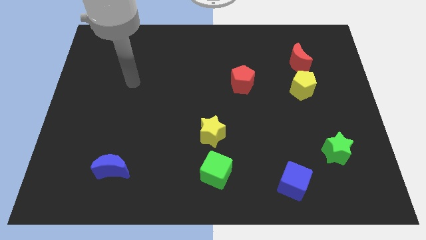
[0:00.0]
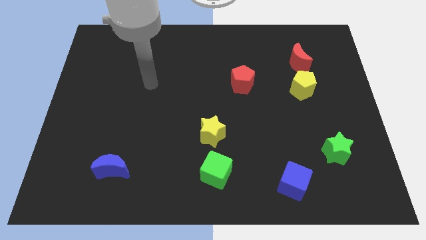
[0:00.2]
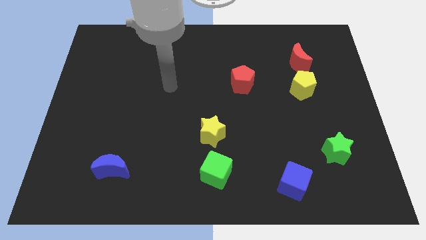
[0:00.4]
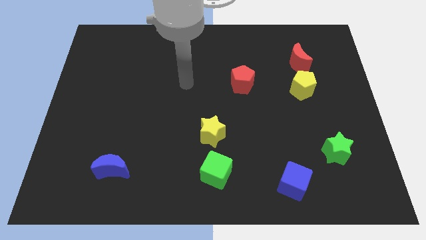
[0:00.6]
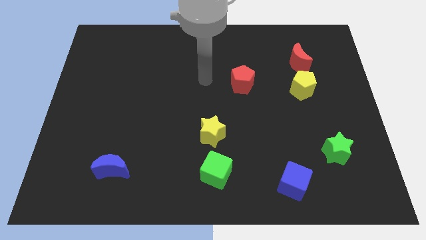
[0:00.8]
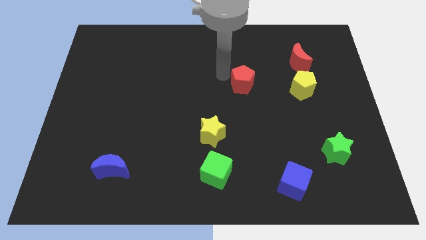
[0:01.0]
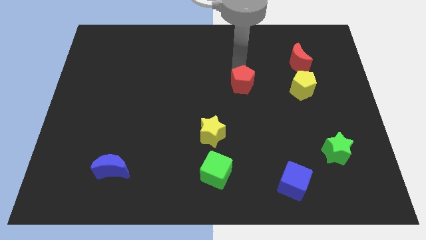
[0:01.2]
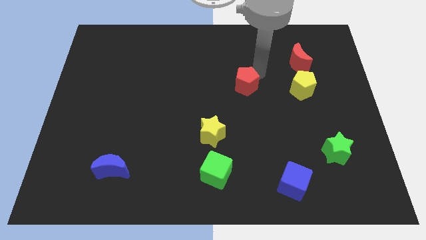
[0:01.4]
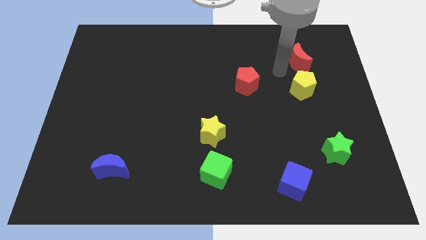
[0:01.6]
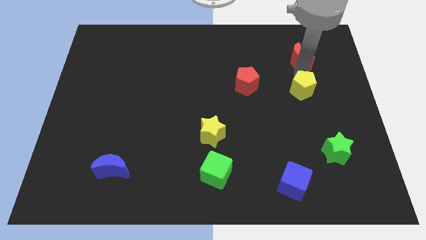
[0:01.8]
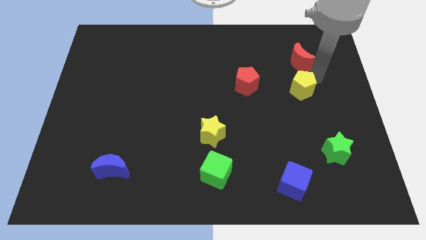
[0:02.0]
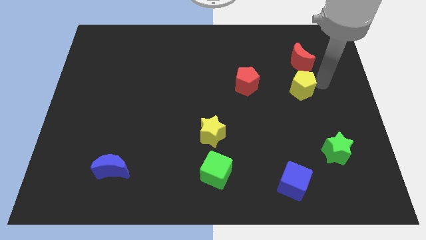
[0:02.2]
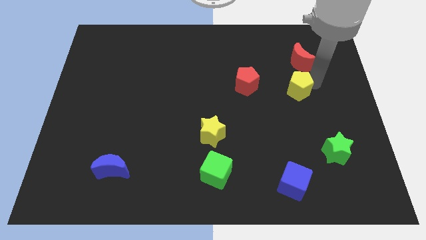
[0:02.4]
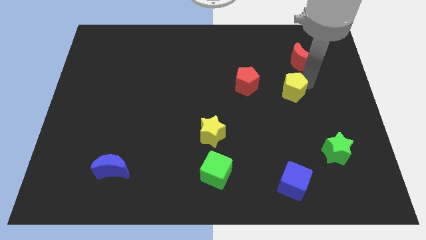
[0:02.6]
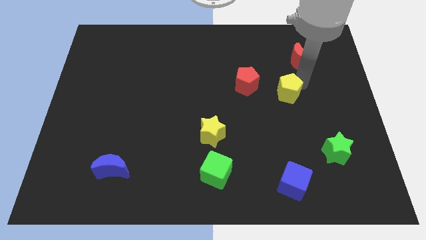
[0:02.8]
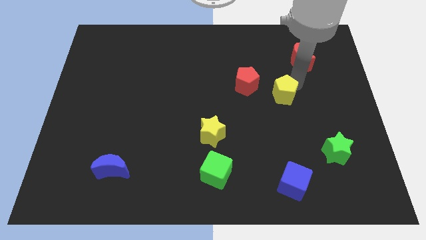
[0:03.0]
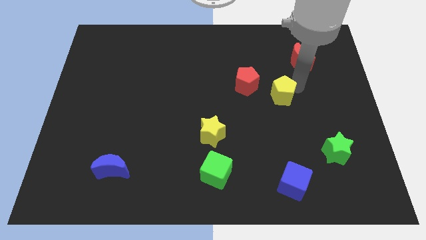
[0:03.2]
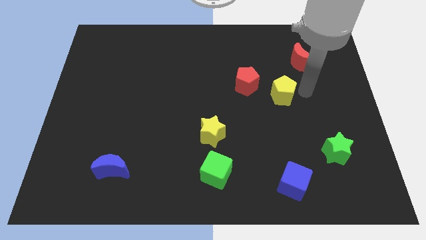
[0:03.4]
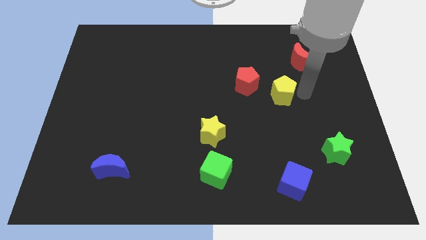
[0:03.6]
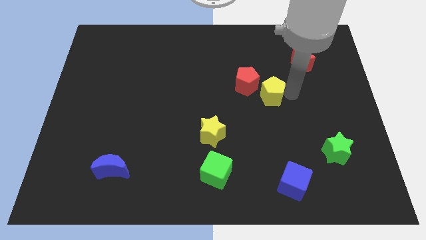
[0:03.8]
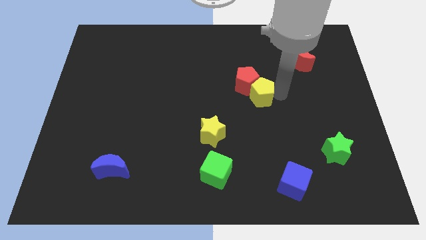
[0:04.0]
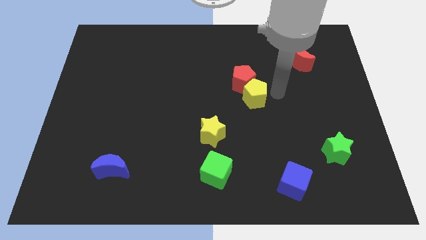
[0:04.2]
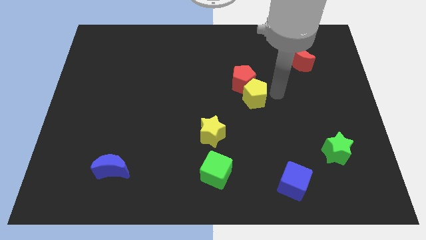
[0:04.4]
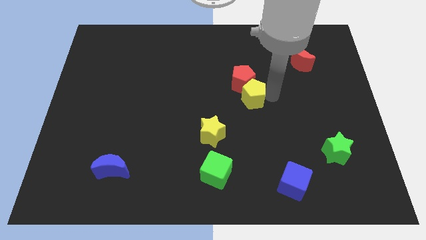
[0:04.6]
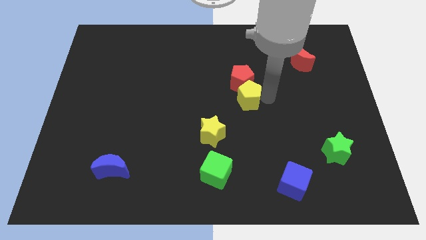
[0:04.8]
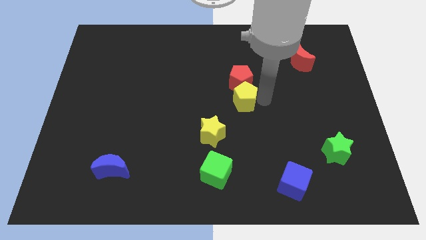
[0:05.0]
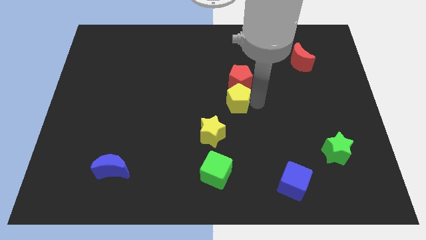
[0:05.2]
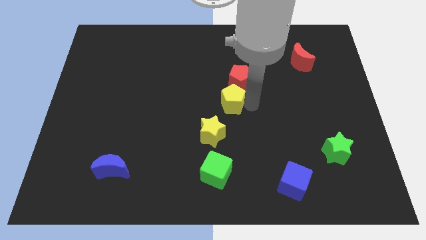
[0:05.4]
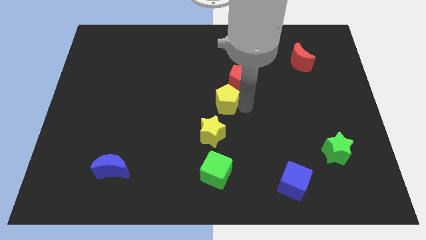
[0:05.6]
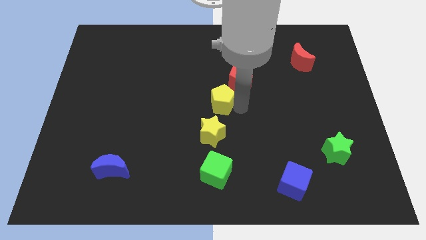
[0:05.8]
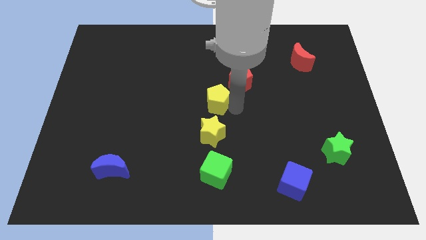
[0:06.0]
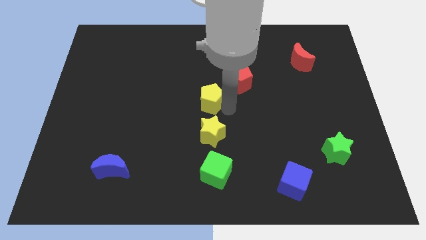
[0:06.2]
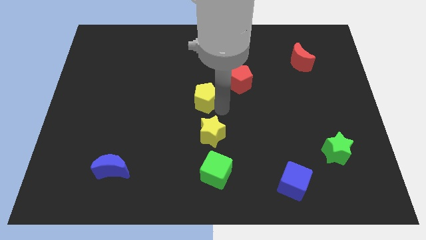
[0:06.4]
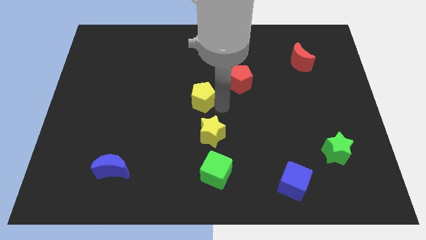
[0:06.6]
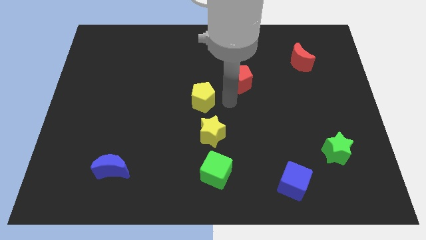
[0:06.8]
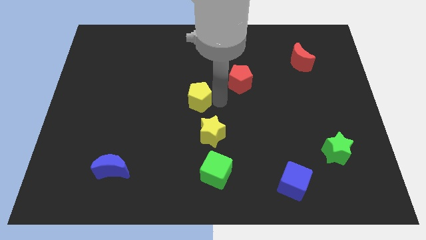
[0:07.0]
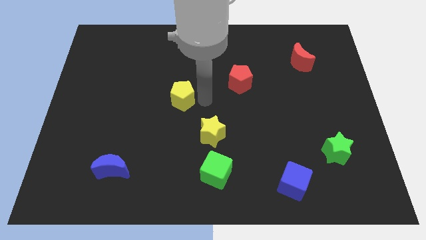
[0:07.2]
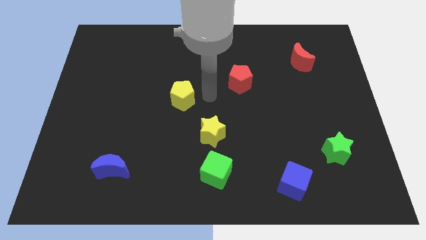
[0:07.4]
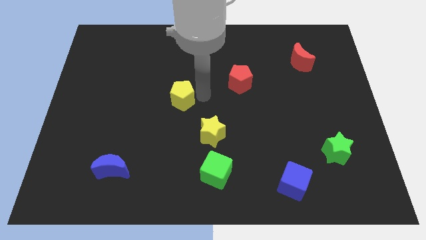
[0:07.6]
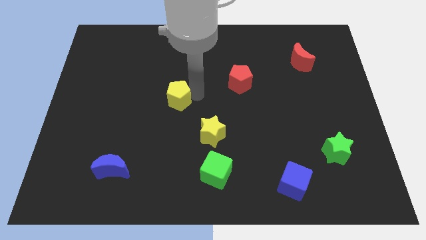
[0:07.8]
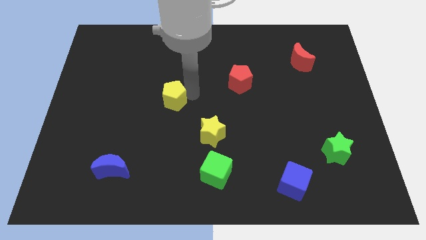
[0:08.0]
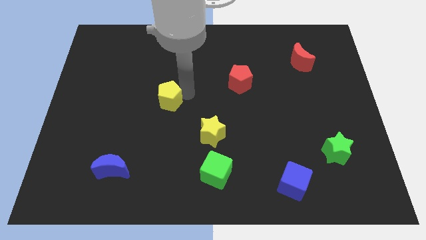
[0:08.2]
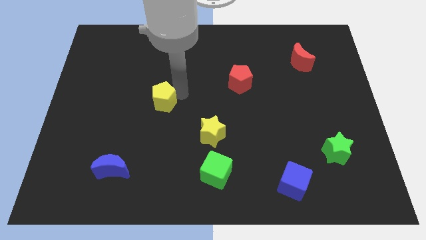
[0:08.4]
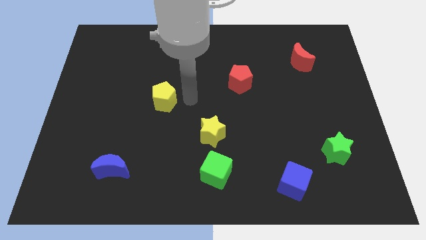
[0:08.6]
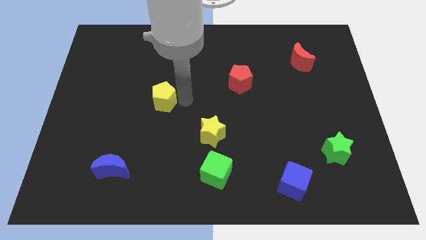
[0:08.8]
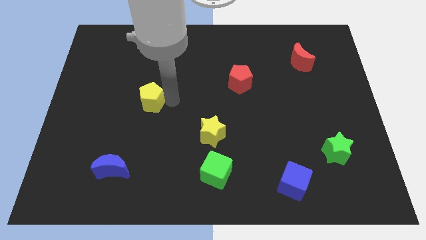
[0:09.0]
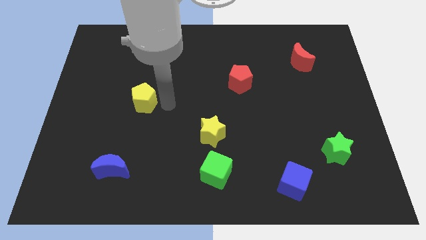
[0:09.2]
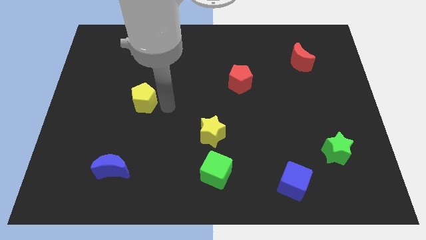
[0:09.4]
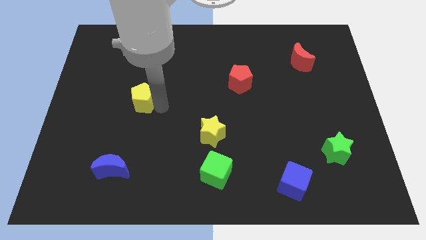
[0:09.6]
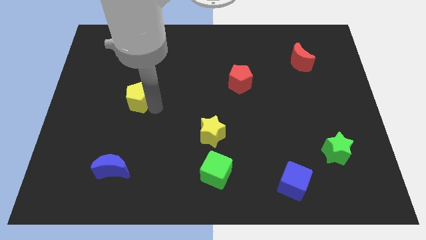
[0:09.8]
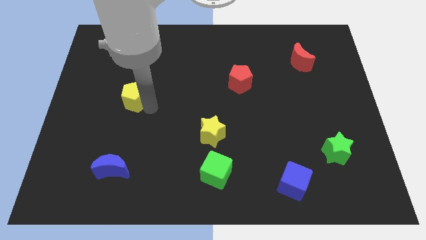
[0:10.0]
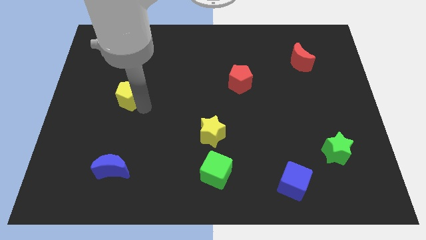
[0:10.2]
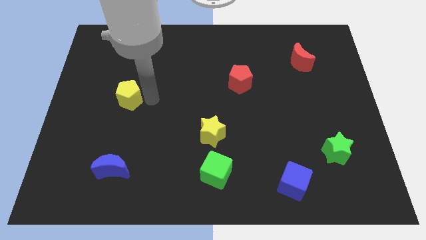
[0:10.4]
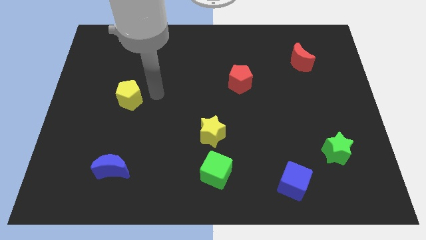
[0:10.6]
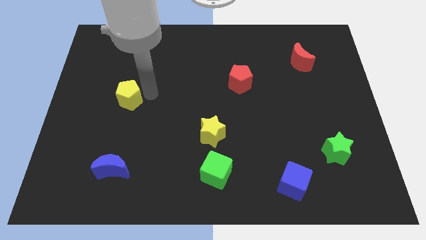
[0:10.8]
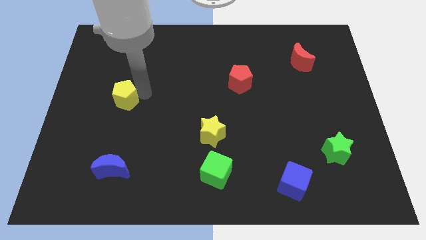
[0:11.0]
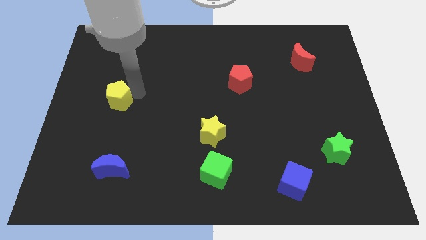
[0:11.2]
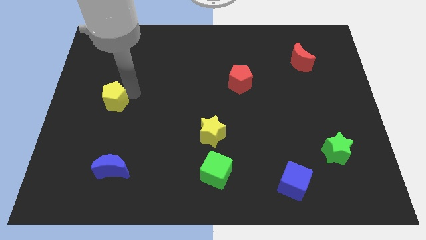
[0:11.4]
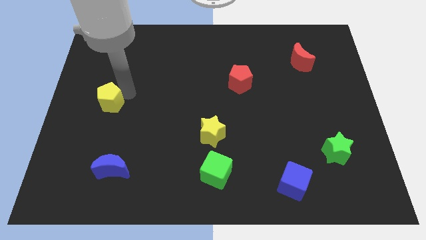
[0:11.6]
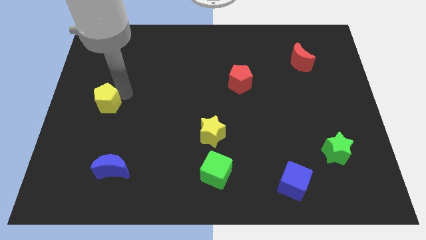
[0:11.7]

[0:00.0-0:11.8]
slide the yellow pentagon to the left side
